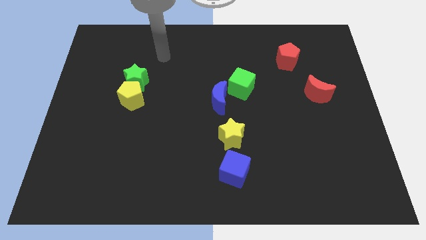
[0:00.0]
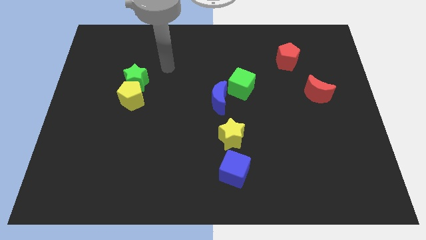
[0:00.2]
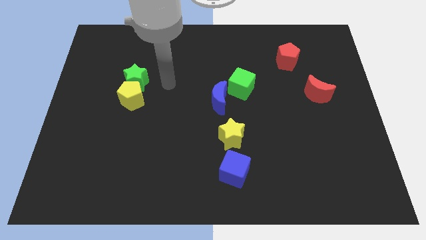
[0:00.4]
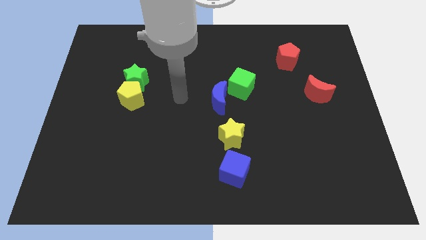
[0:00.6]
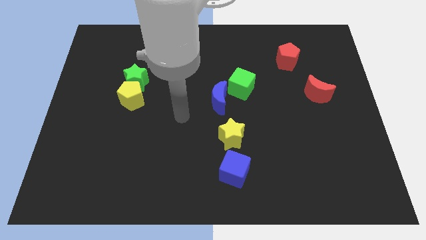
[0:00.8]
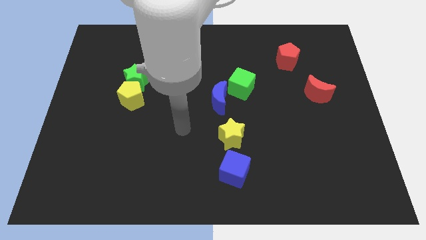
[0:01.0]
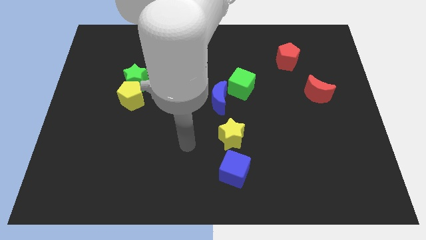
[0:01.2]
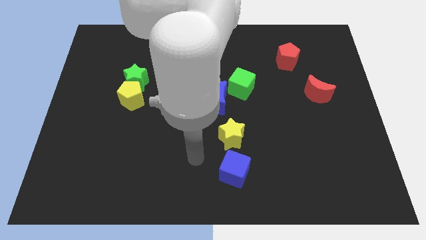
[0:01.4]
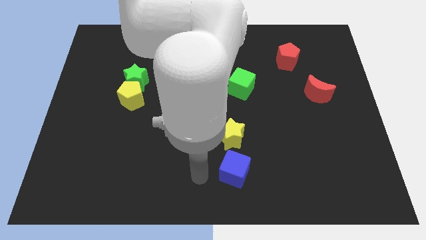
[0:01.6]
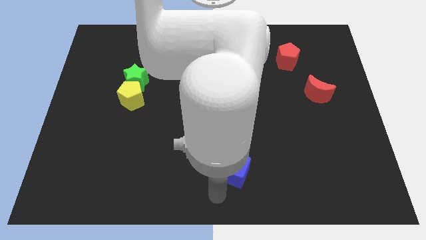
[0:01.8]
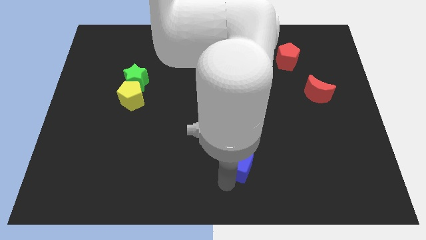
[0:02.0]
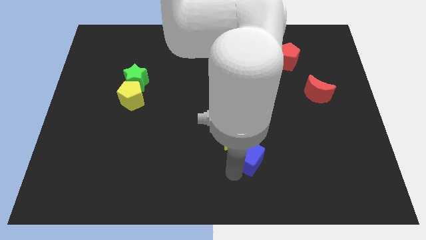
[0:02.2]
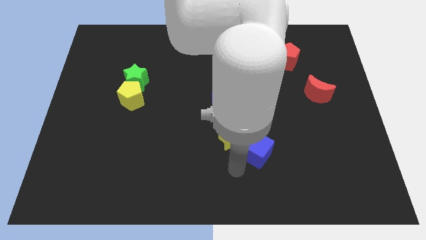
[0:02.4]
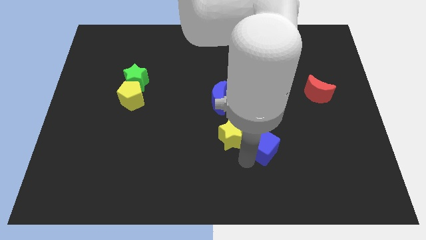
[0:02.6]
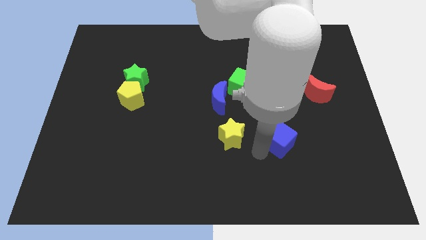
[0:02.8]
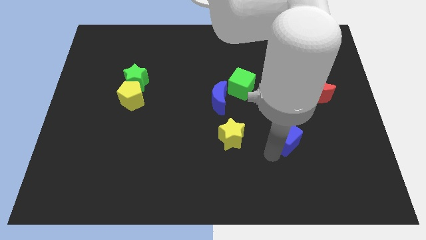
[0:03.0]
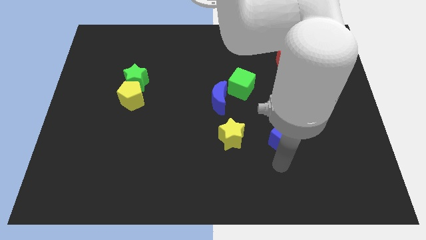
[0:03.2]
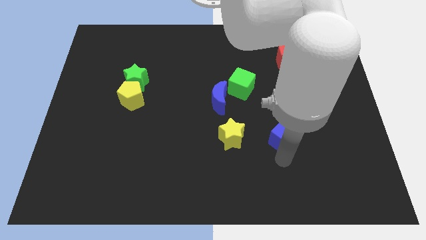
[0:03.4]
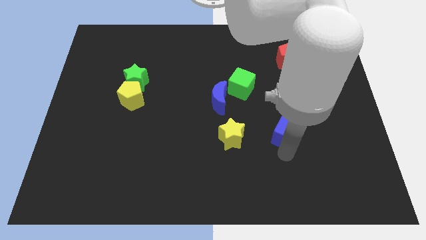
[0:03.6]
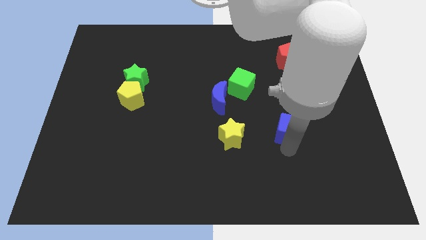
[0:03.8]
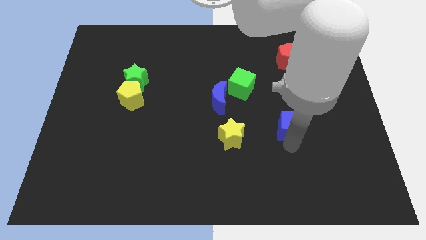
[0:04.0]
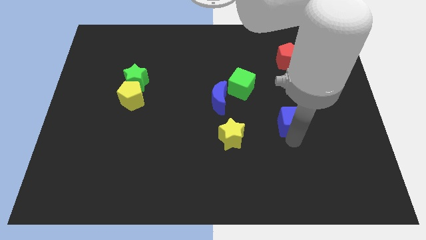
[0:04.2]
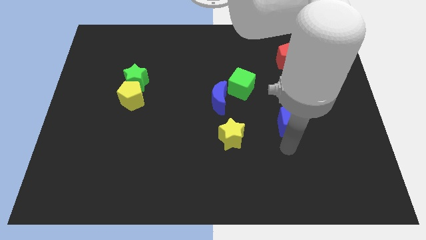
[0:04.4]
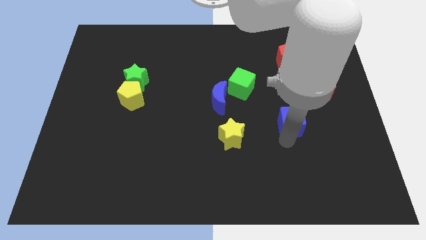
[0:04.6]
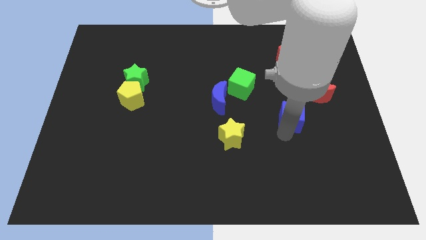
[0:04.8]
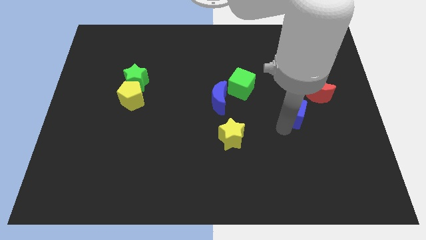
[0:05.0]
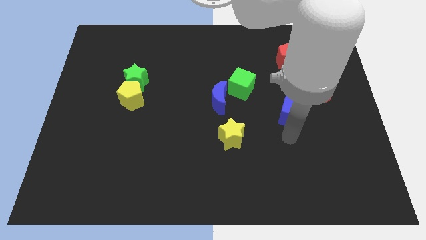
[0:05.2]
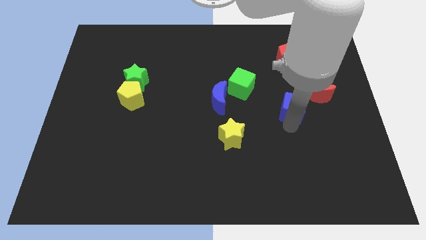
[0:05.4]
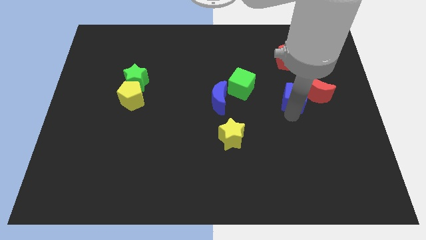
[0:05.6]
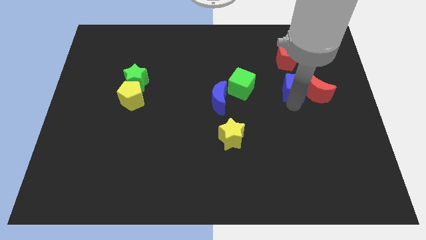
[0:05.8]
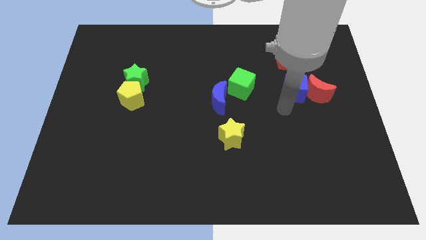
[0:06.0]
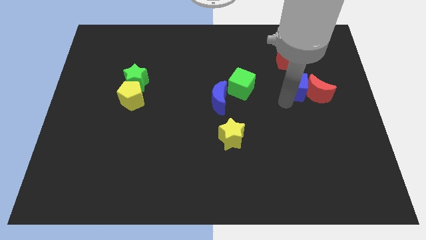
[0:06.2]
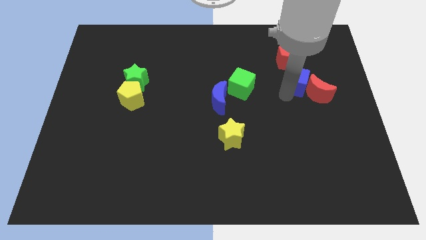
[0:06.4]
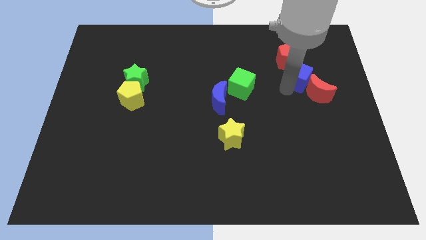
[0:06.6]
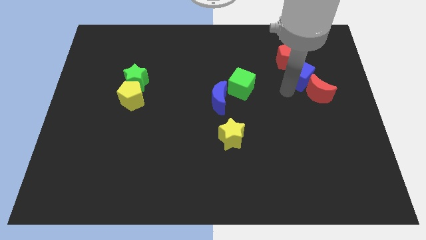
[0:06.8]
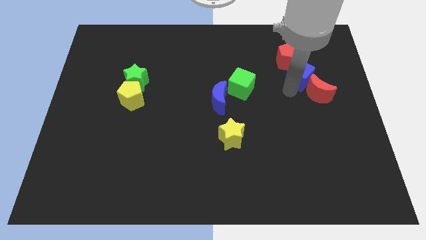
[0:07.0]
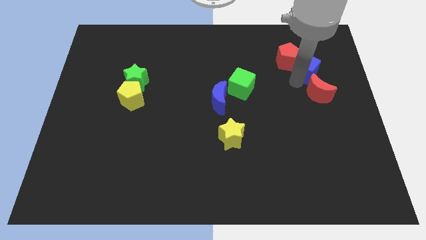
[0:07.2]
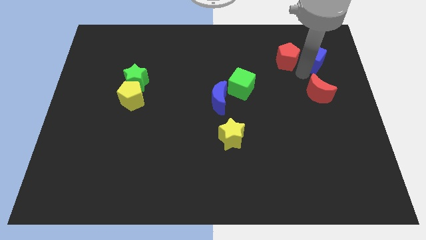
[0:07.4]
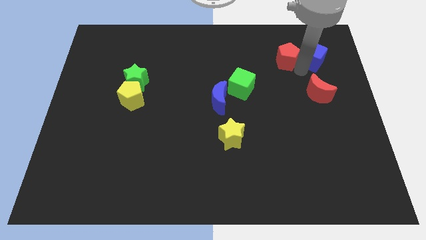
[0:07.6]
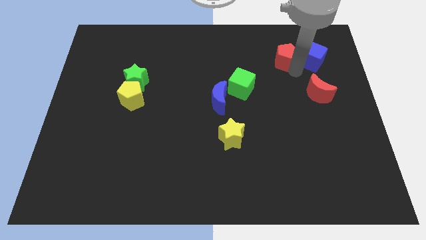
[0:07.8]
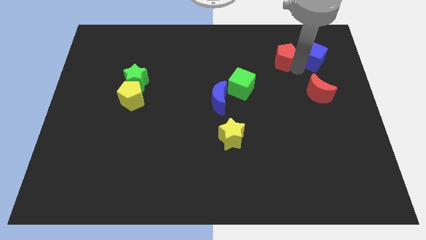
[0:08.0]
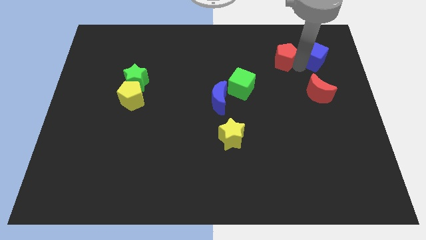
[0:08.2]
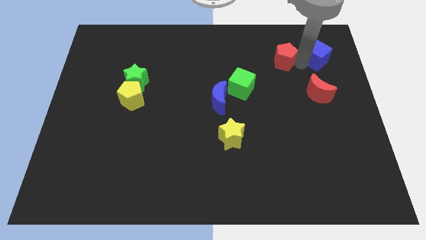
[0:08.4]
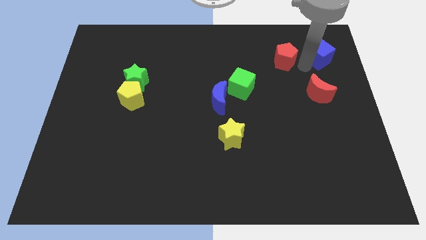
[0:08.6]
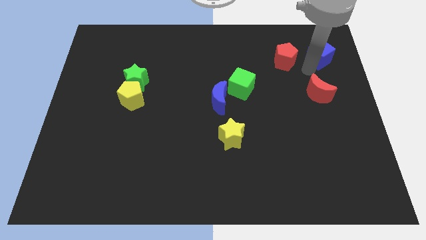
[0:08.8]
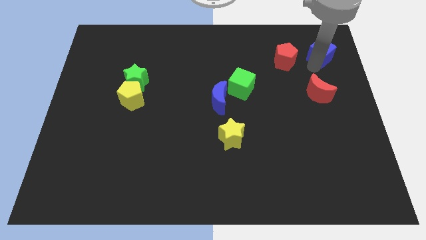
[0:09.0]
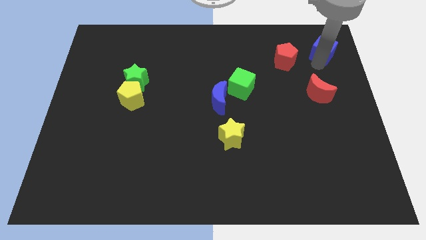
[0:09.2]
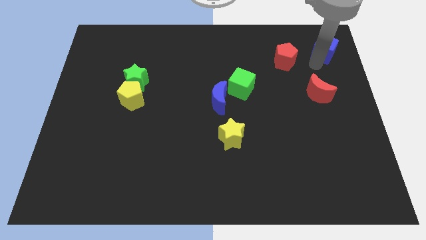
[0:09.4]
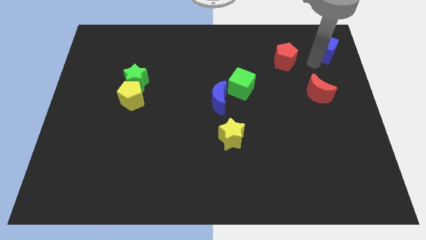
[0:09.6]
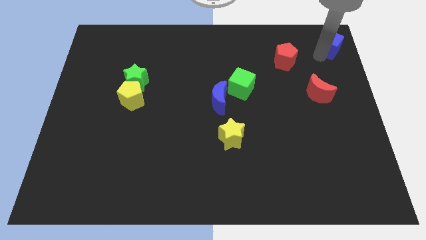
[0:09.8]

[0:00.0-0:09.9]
put the blue cube to the top right

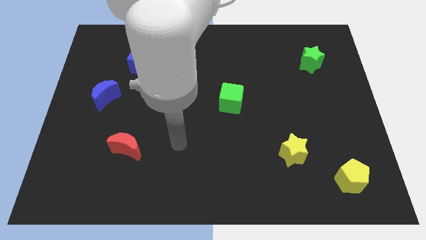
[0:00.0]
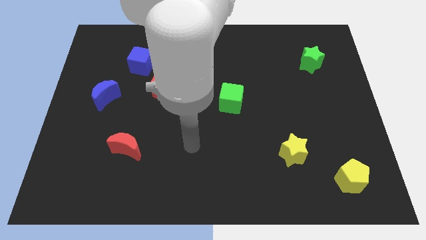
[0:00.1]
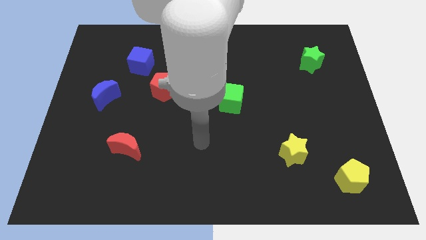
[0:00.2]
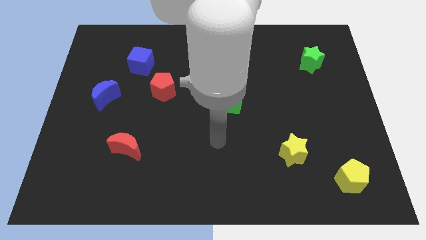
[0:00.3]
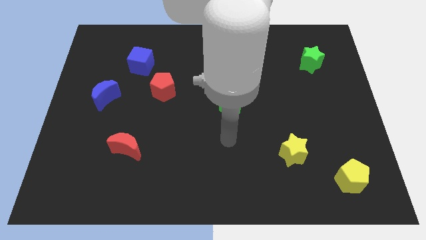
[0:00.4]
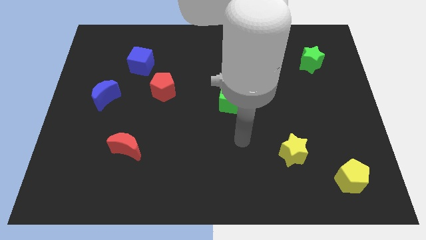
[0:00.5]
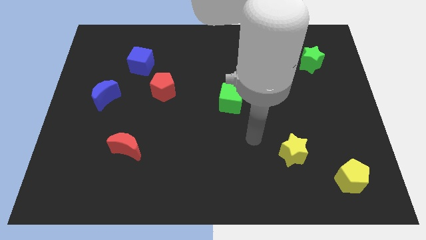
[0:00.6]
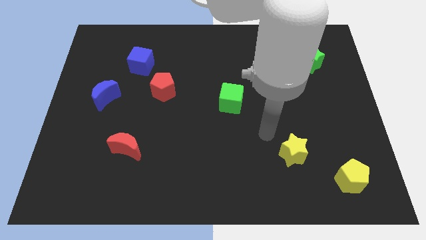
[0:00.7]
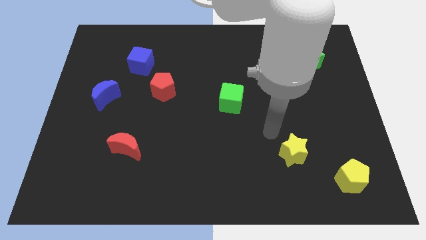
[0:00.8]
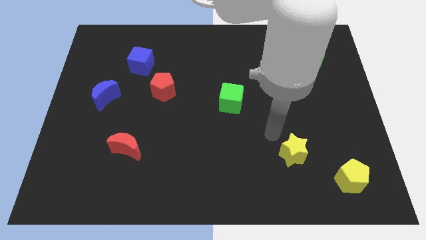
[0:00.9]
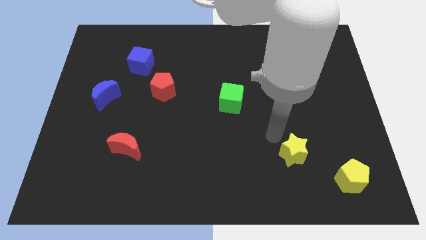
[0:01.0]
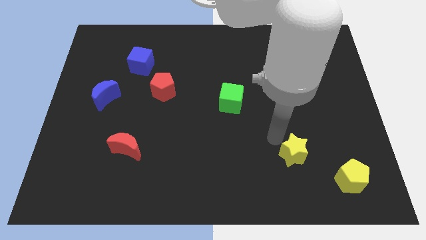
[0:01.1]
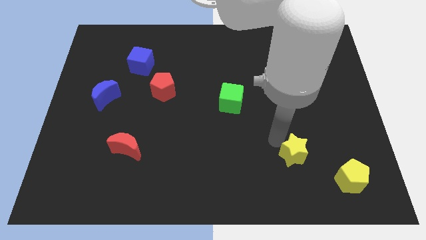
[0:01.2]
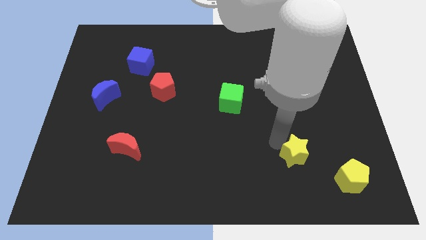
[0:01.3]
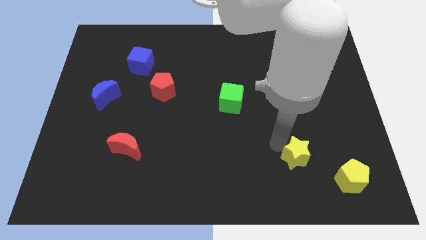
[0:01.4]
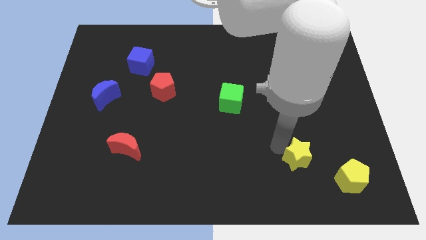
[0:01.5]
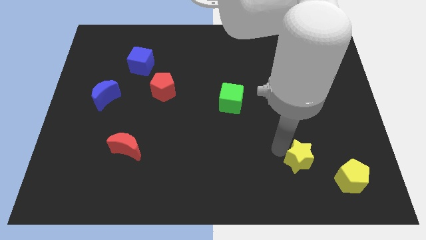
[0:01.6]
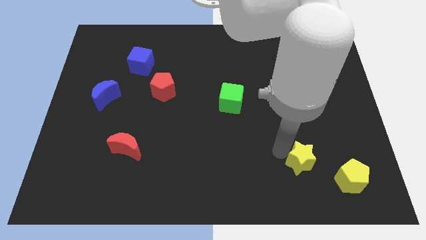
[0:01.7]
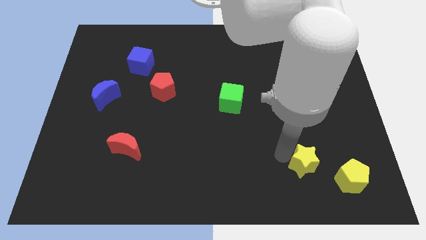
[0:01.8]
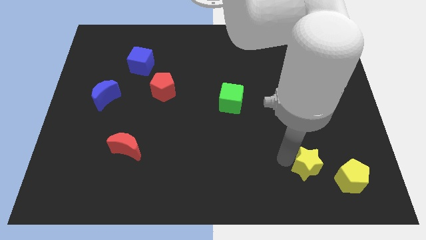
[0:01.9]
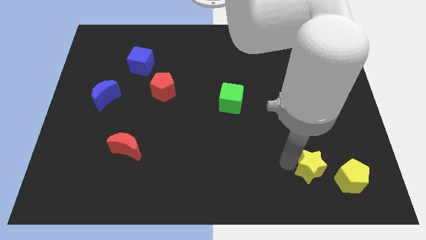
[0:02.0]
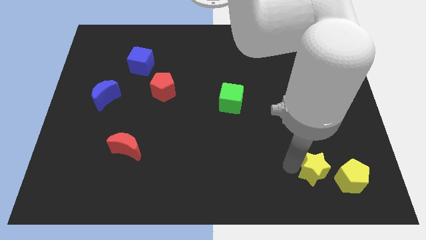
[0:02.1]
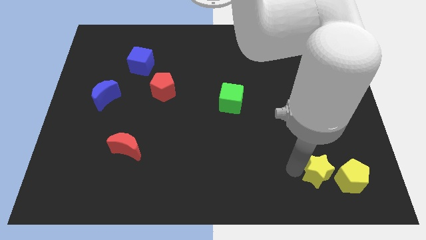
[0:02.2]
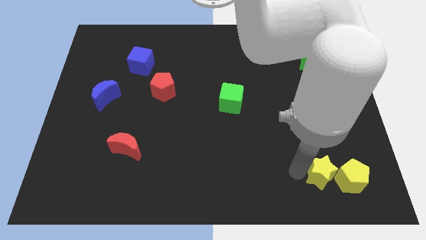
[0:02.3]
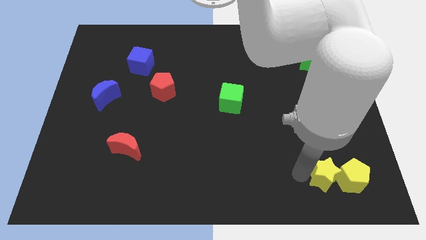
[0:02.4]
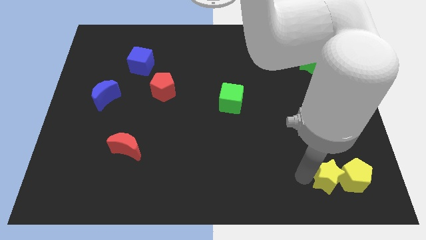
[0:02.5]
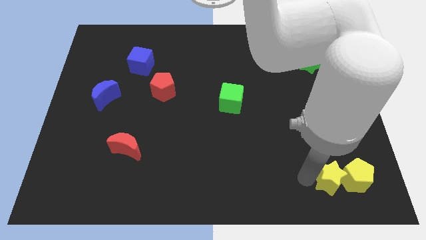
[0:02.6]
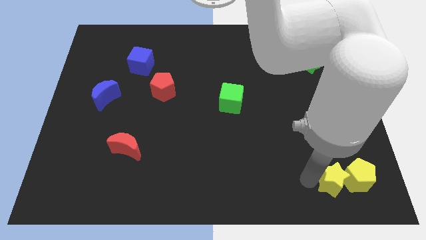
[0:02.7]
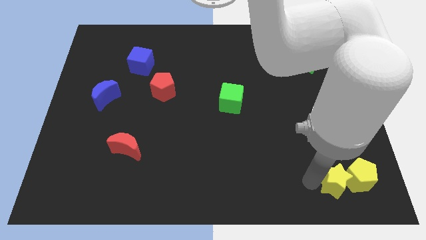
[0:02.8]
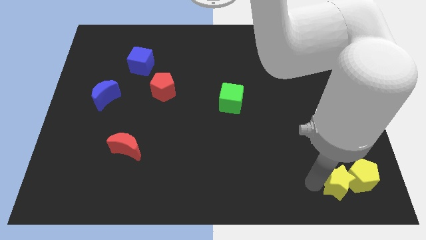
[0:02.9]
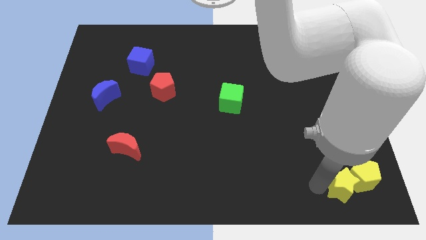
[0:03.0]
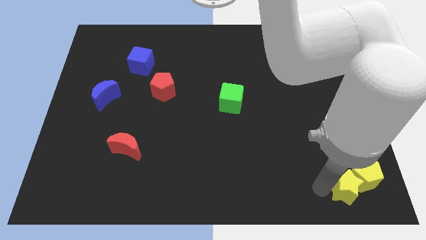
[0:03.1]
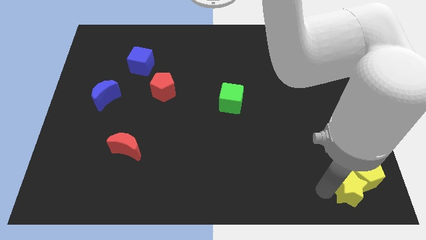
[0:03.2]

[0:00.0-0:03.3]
move the yellow star to the bottom right of the board
